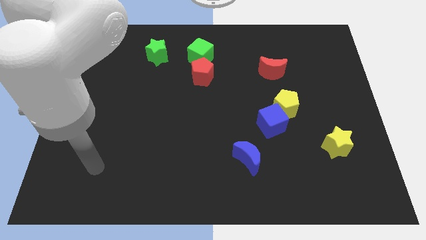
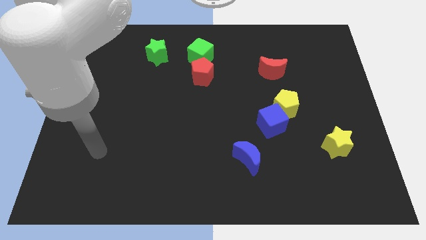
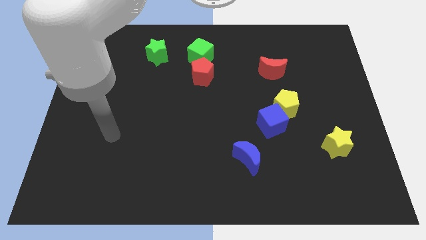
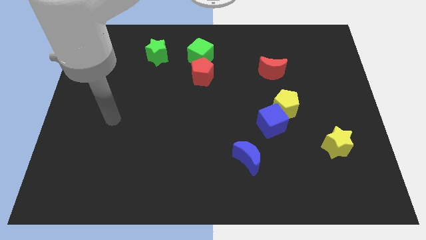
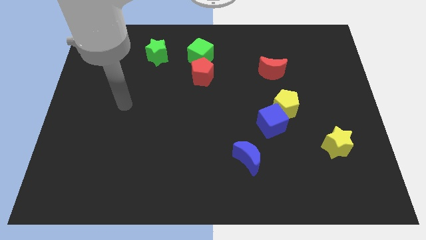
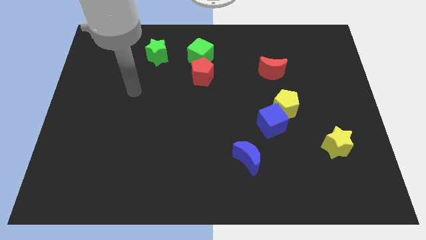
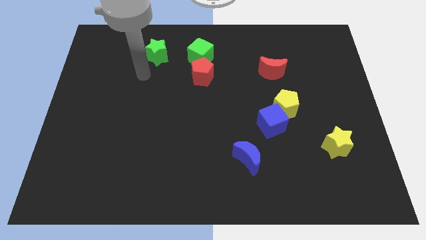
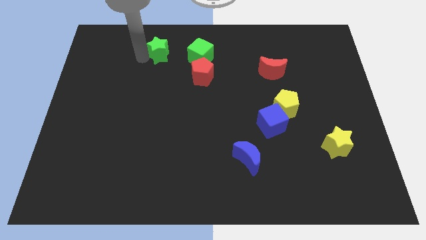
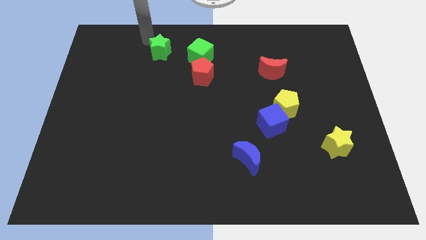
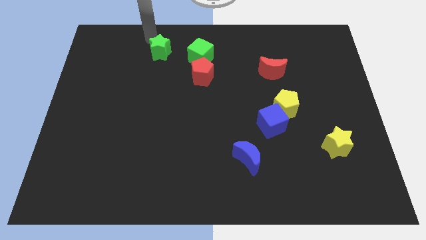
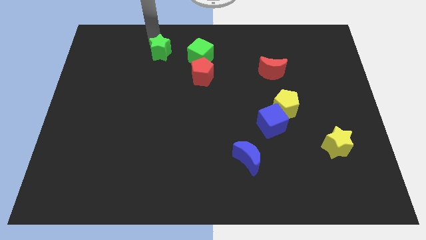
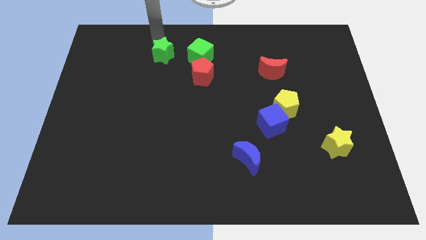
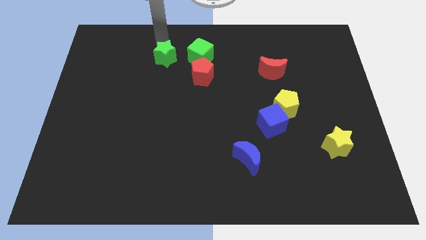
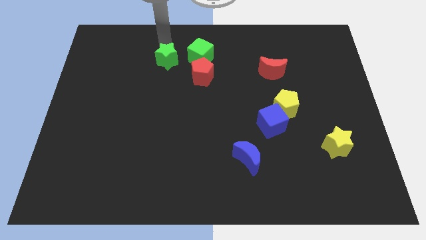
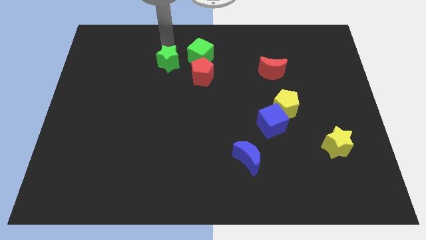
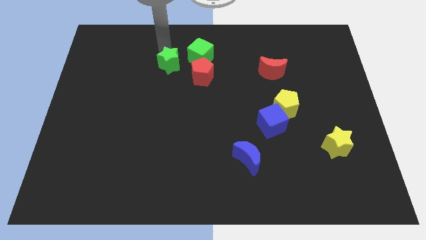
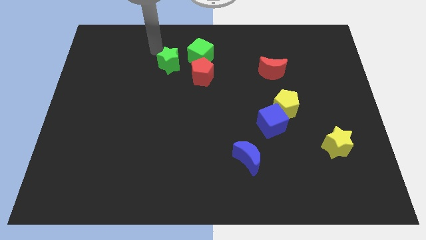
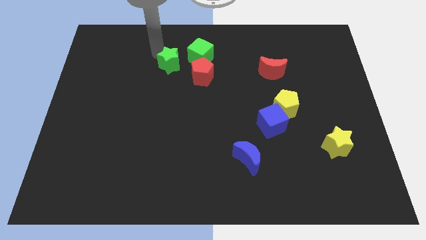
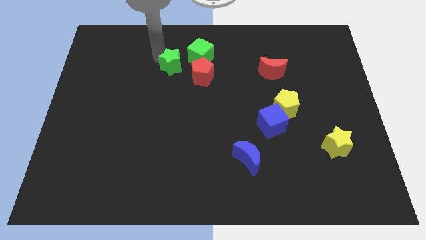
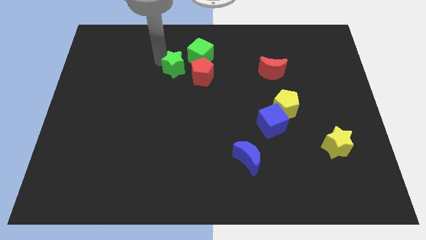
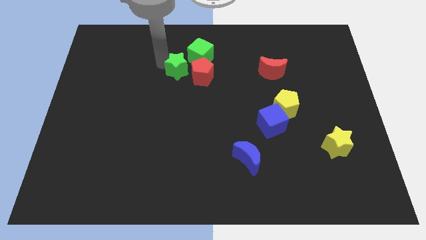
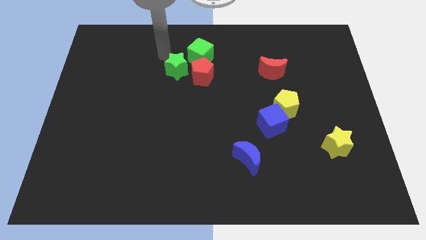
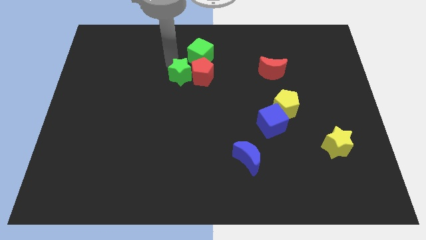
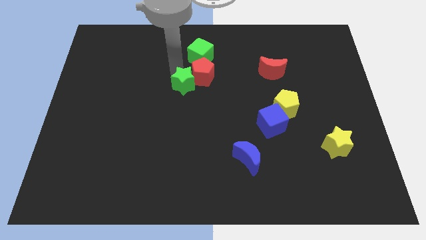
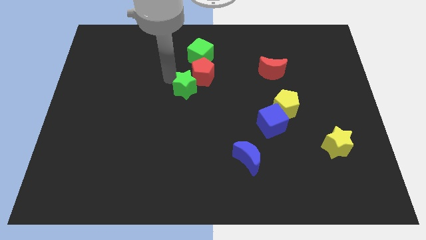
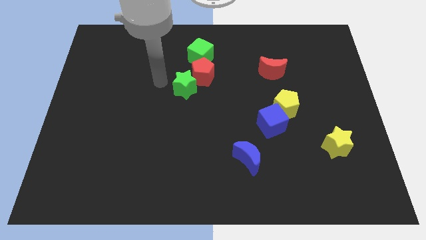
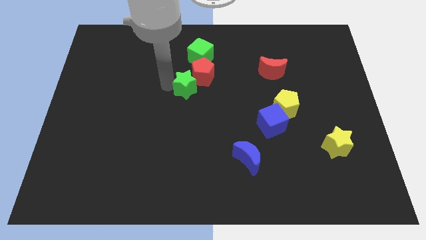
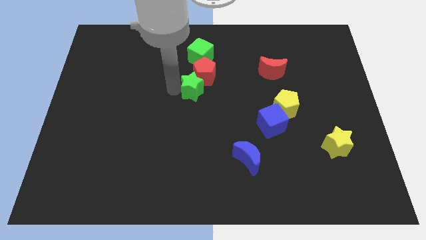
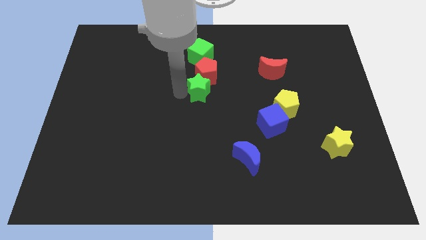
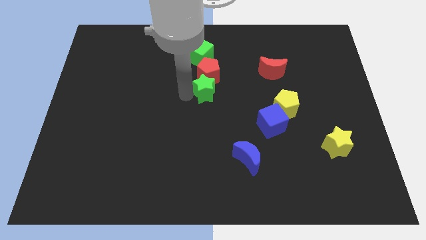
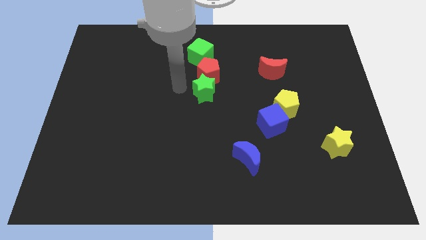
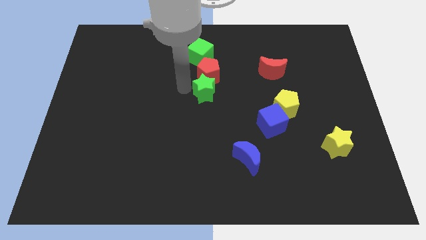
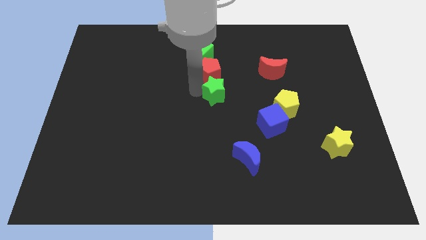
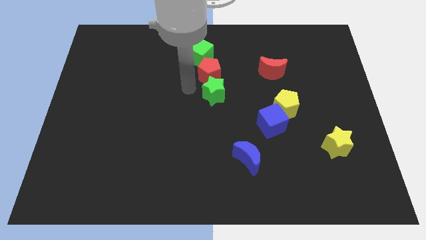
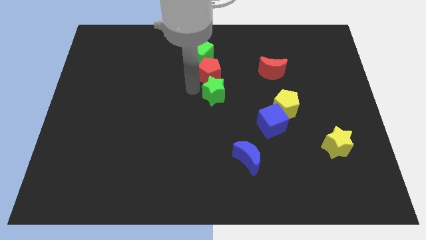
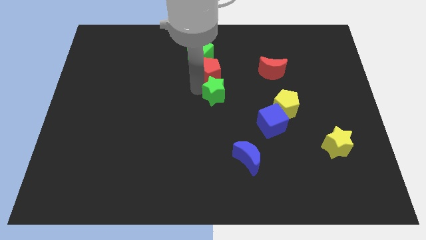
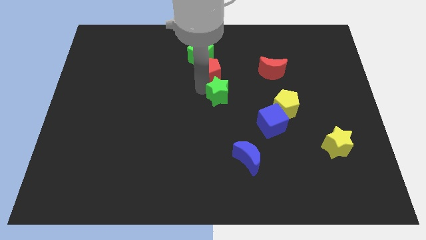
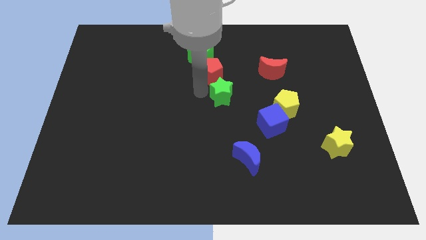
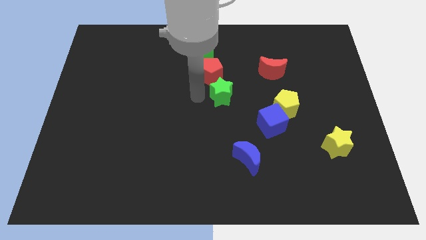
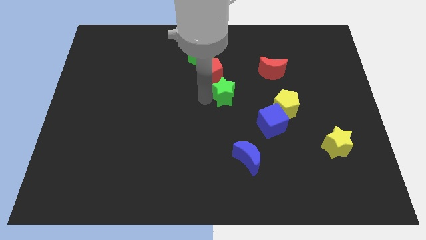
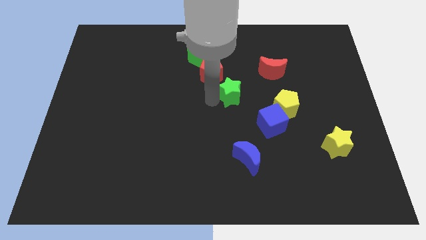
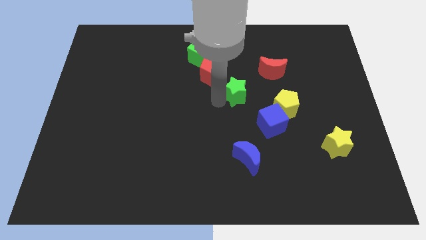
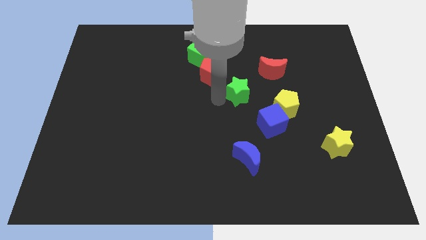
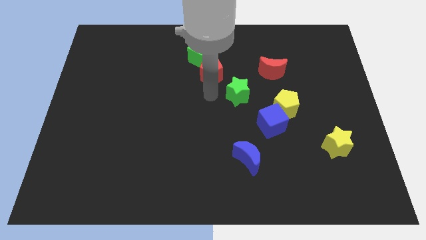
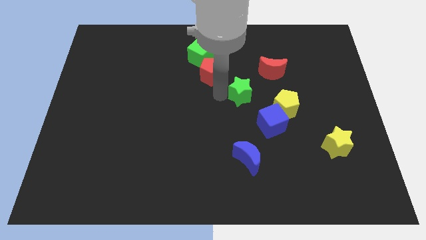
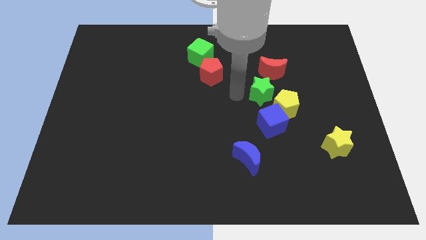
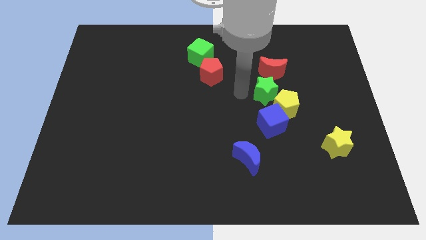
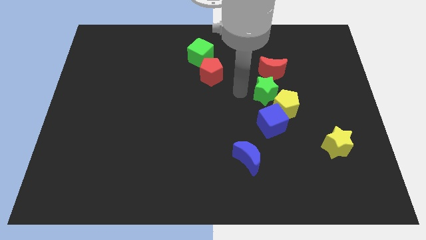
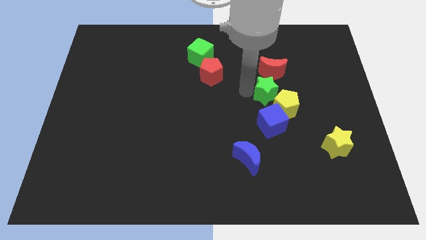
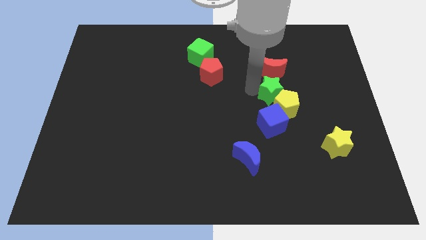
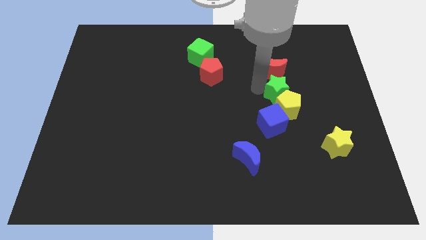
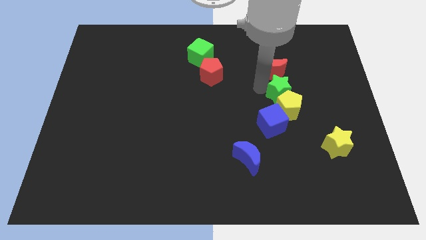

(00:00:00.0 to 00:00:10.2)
move the green star diagonally up and to the right of the blue cube

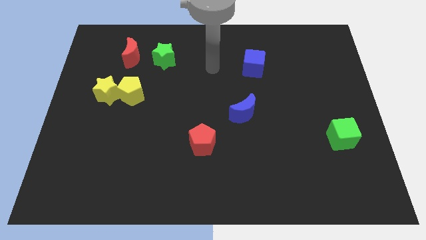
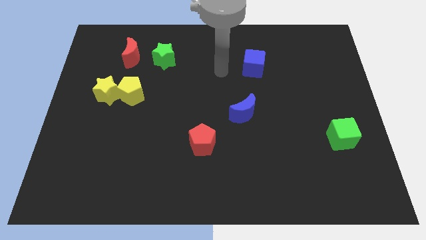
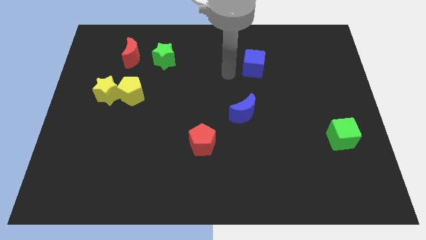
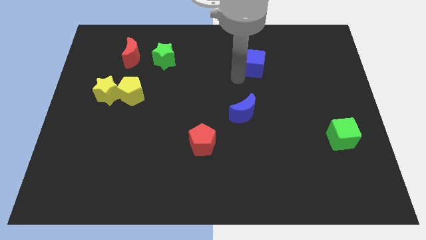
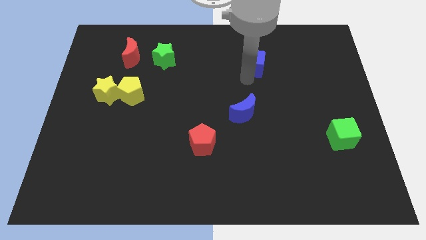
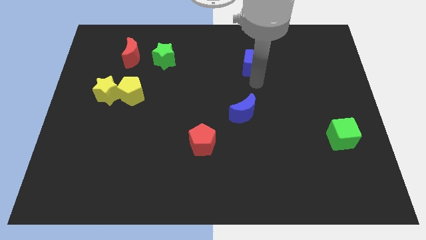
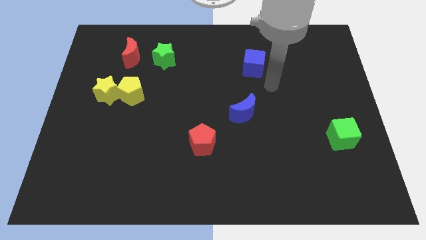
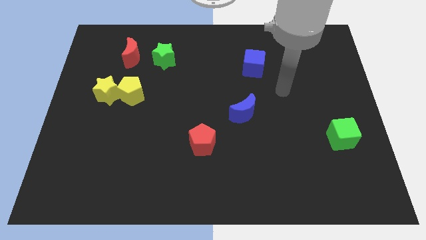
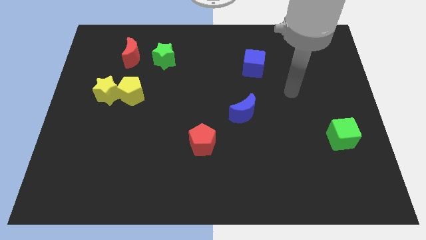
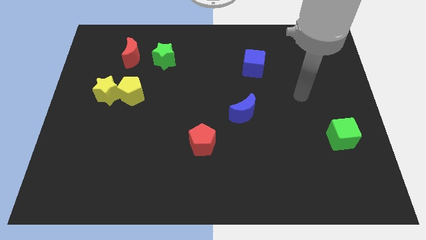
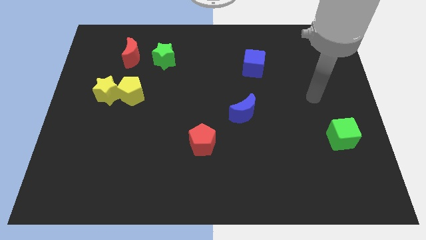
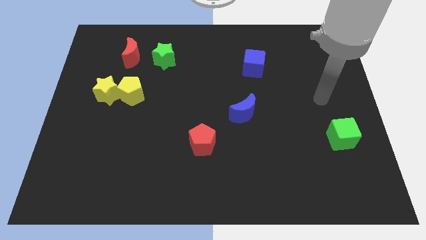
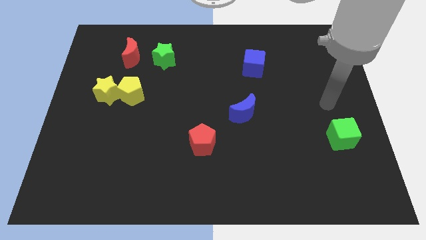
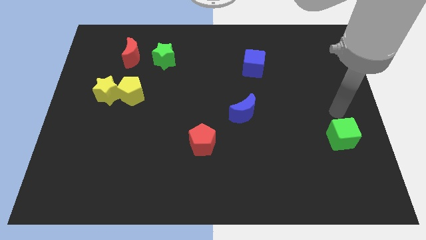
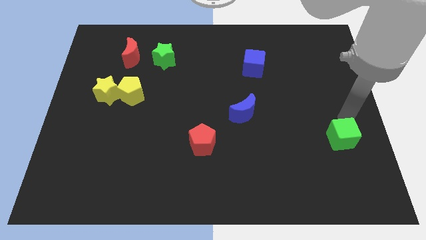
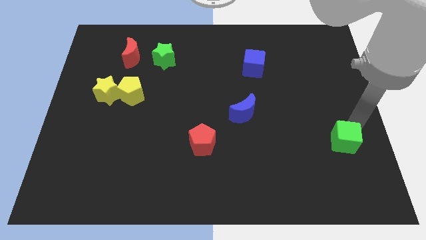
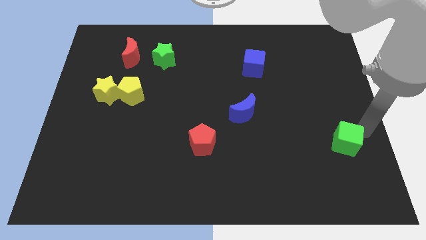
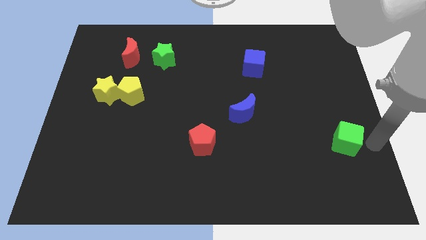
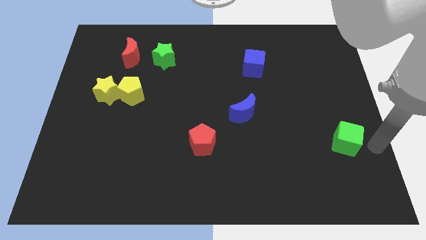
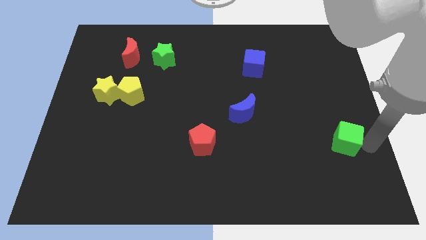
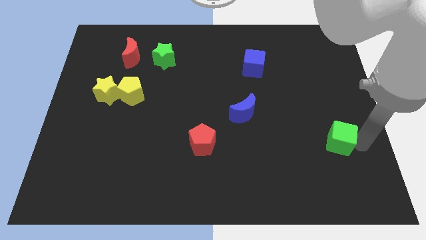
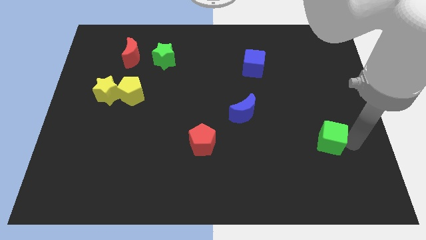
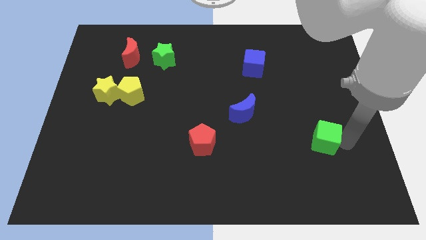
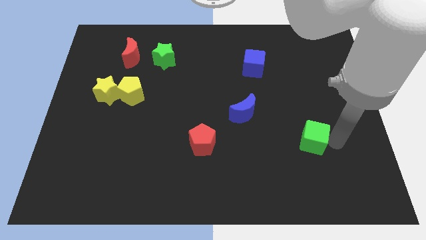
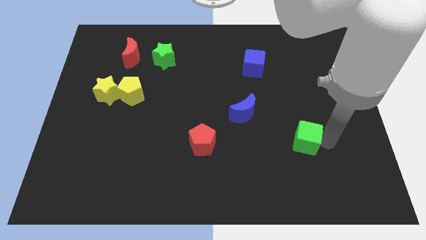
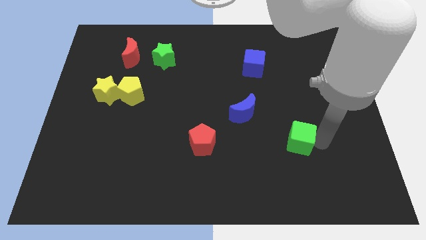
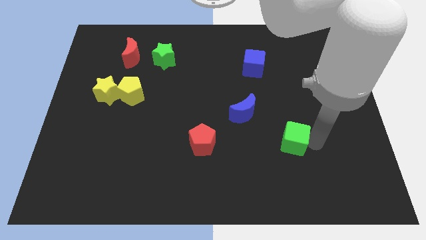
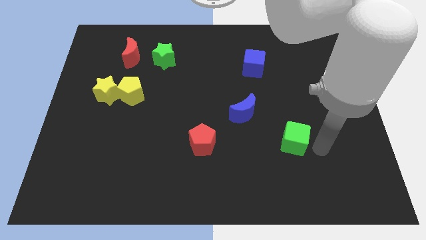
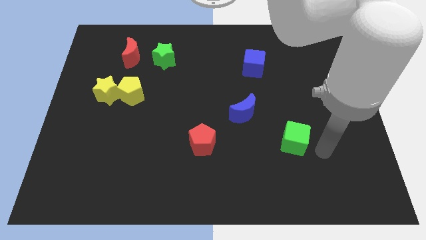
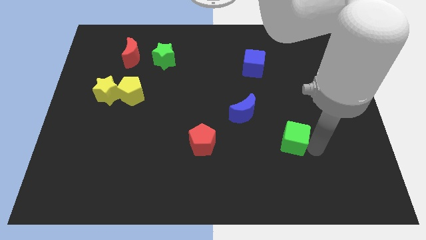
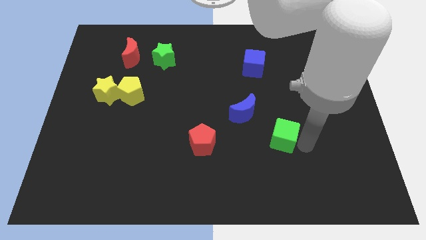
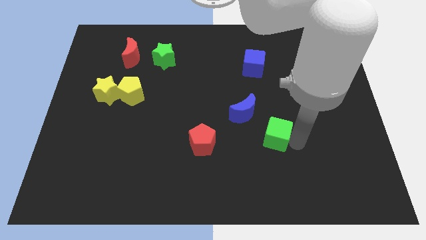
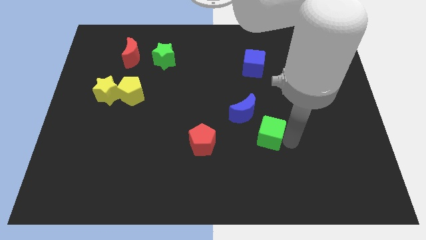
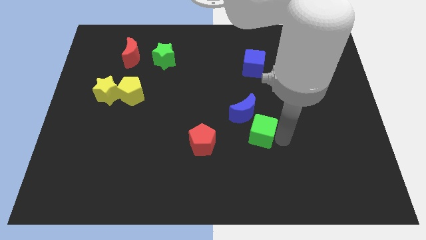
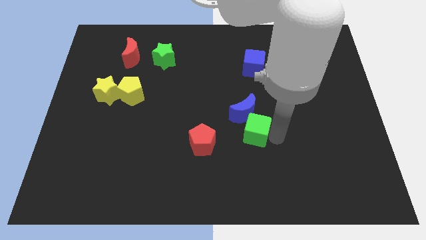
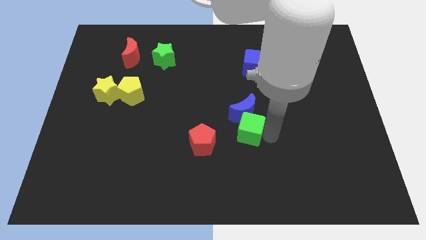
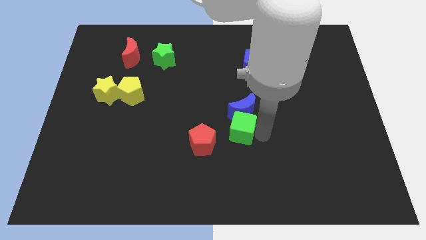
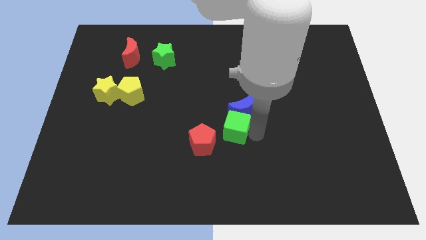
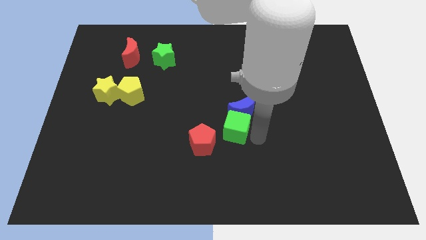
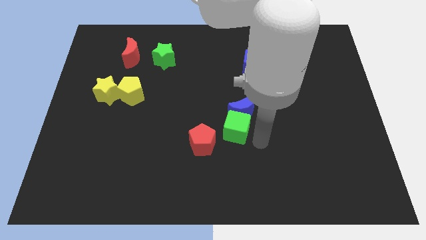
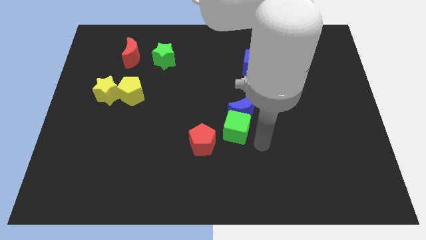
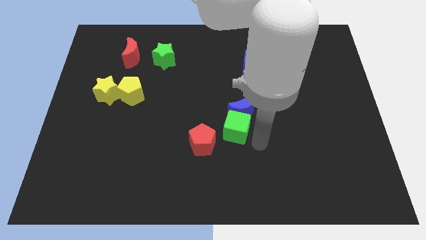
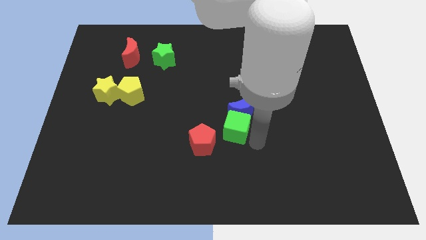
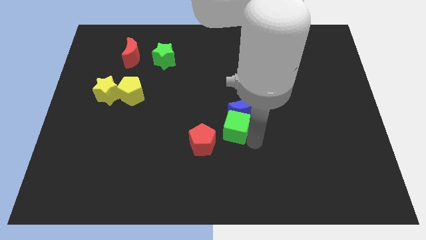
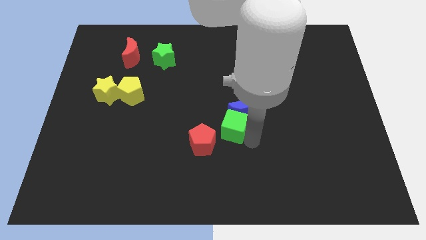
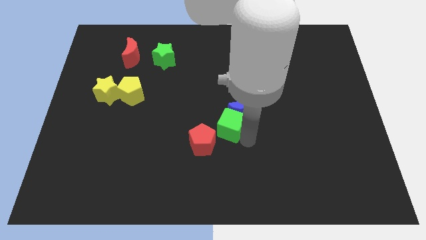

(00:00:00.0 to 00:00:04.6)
push the green cube to the left of the blue moon
